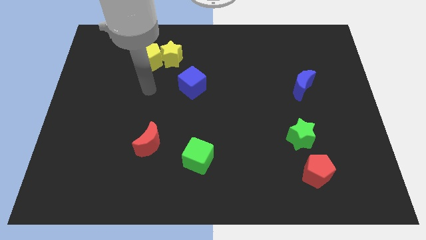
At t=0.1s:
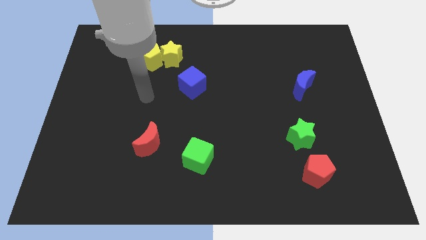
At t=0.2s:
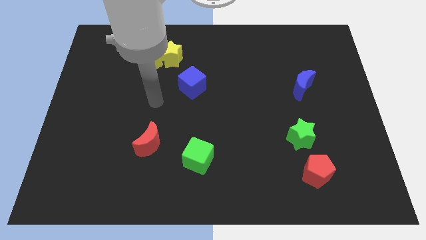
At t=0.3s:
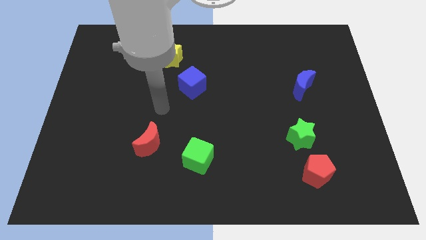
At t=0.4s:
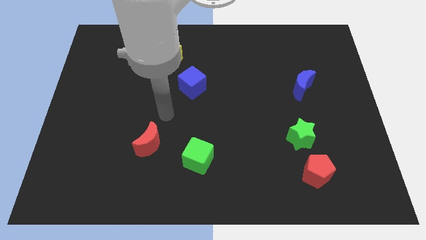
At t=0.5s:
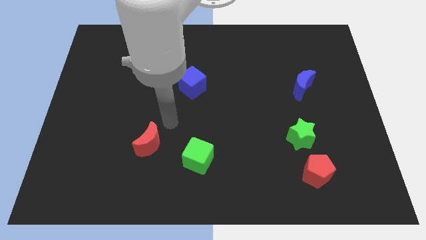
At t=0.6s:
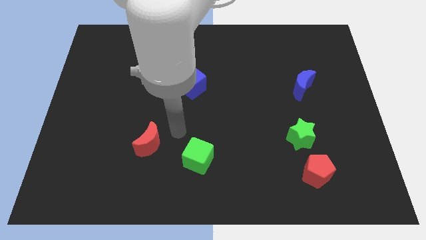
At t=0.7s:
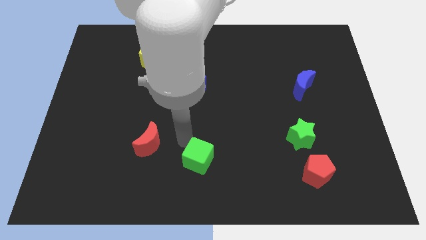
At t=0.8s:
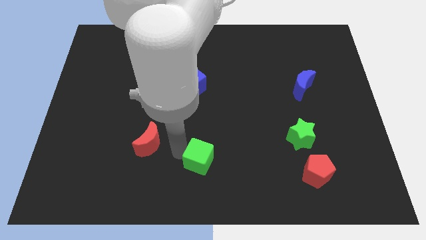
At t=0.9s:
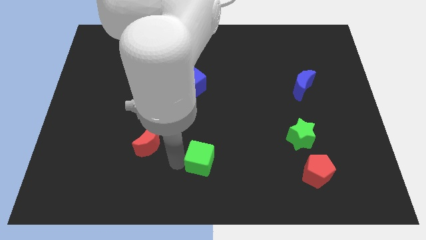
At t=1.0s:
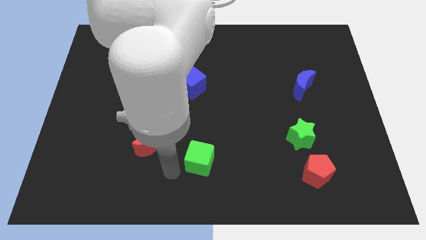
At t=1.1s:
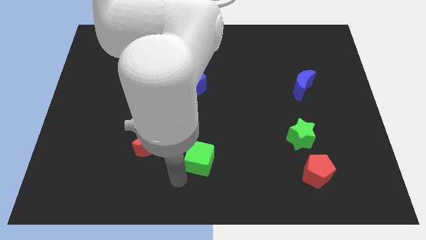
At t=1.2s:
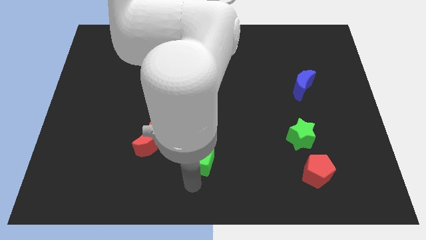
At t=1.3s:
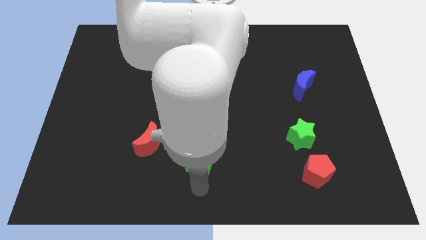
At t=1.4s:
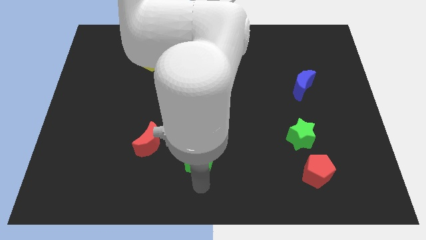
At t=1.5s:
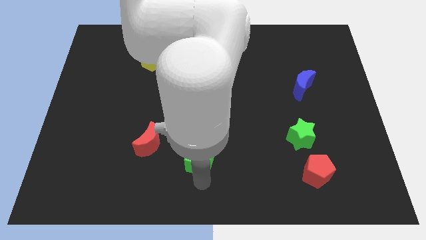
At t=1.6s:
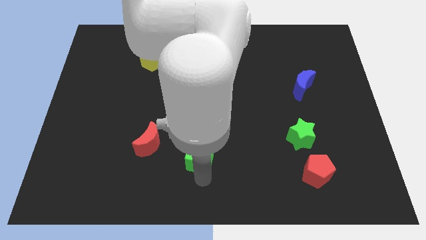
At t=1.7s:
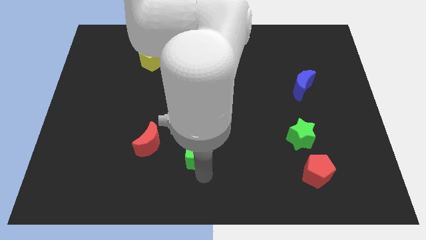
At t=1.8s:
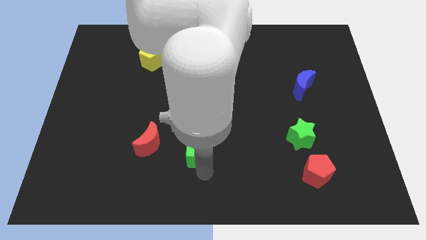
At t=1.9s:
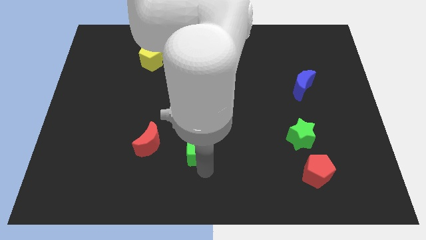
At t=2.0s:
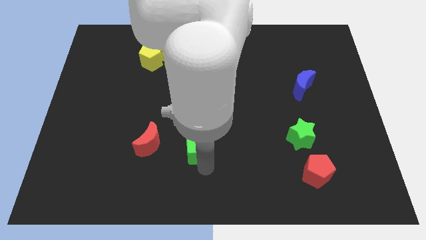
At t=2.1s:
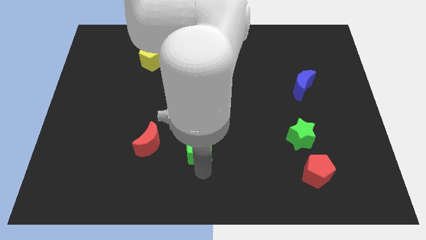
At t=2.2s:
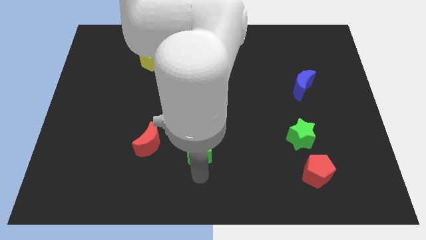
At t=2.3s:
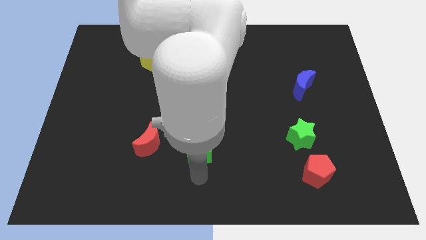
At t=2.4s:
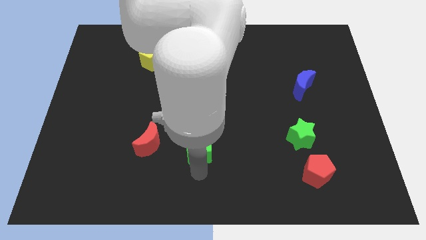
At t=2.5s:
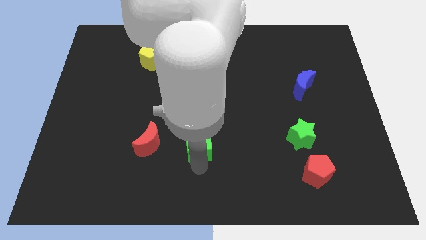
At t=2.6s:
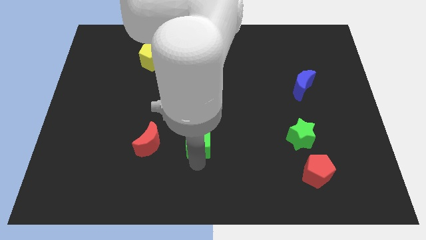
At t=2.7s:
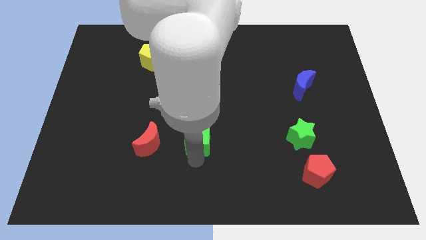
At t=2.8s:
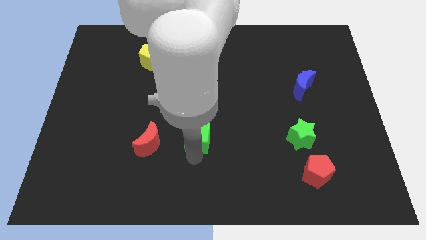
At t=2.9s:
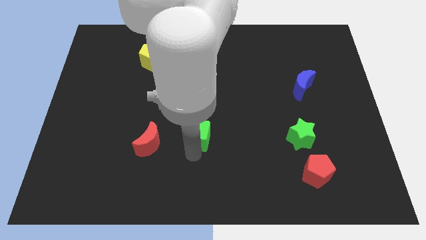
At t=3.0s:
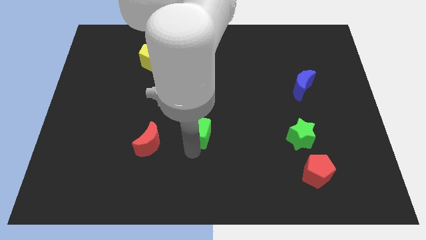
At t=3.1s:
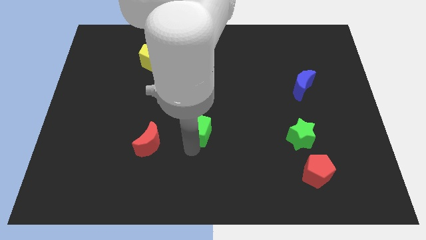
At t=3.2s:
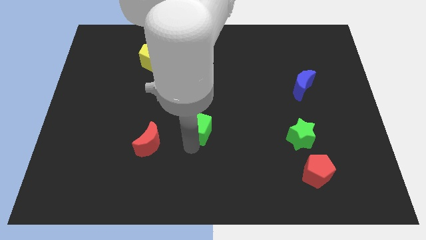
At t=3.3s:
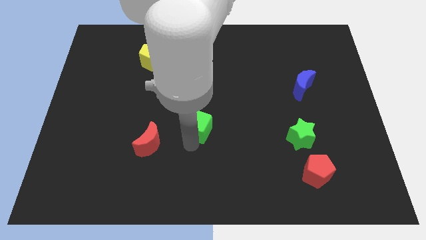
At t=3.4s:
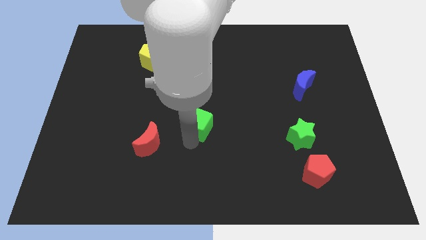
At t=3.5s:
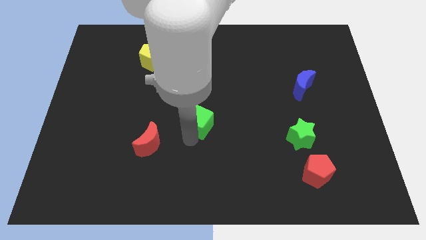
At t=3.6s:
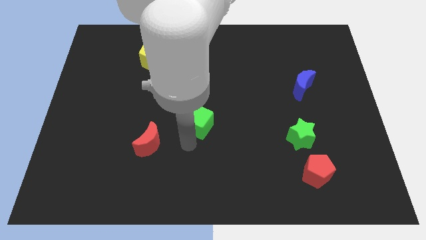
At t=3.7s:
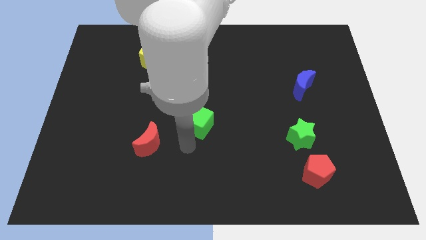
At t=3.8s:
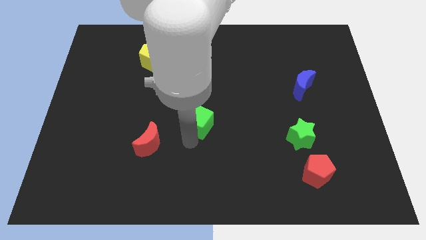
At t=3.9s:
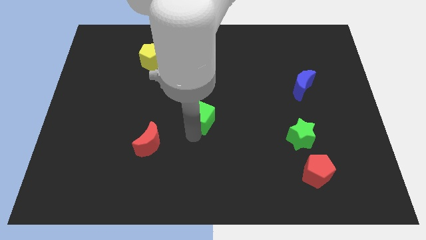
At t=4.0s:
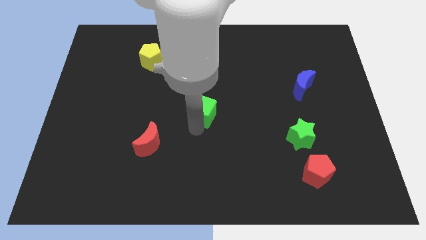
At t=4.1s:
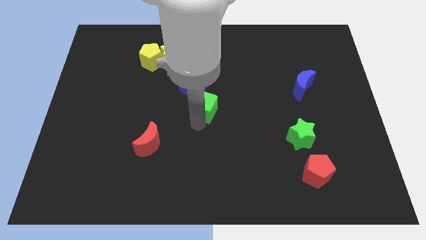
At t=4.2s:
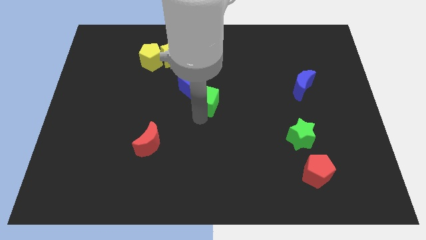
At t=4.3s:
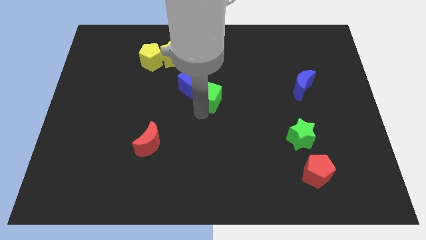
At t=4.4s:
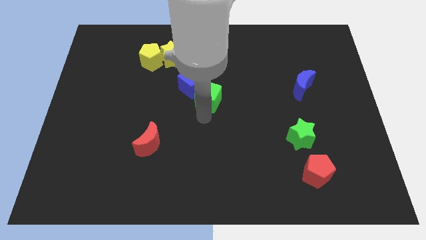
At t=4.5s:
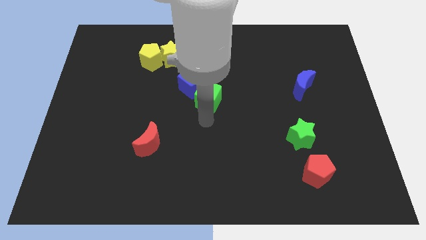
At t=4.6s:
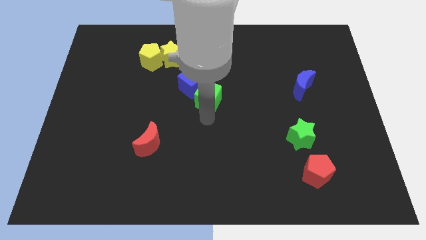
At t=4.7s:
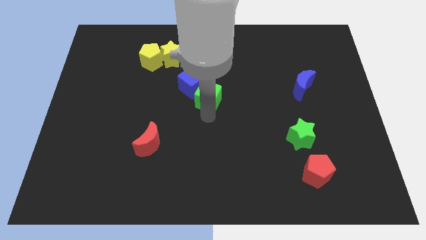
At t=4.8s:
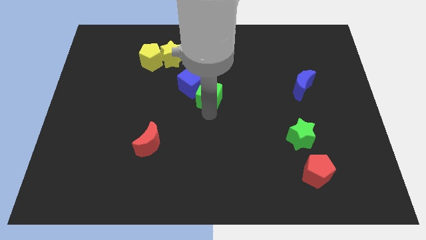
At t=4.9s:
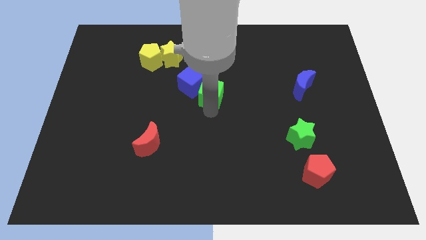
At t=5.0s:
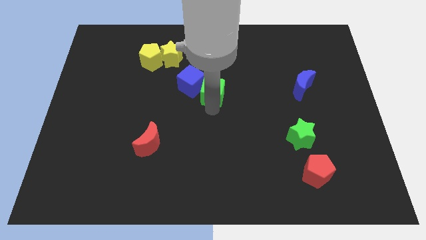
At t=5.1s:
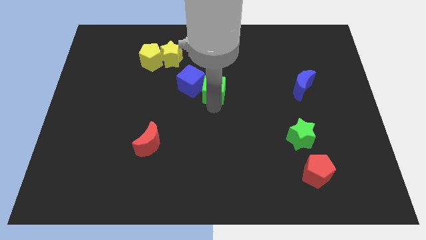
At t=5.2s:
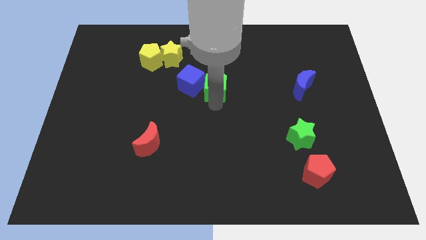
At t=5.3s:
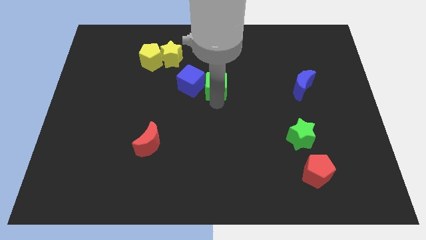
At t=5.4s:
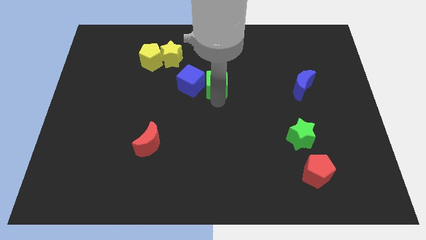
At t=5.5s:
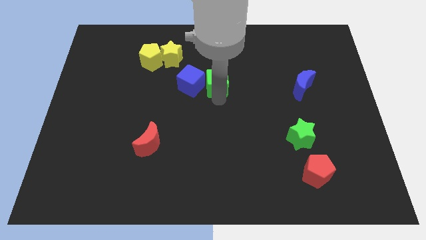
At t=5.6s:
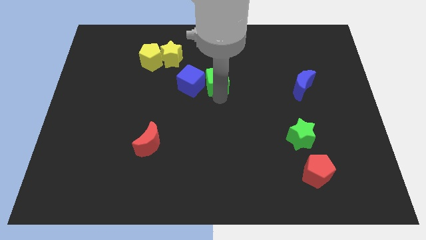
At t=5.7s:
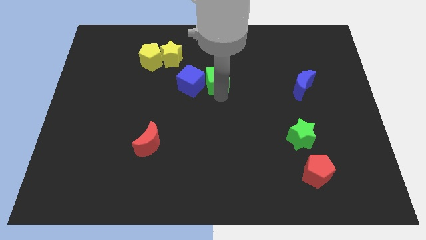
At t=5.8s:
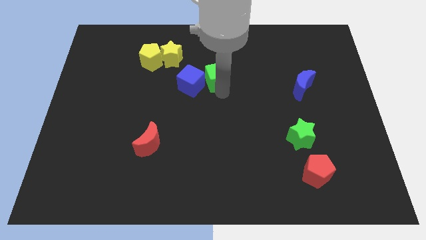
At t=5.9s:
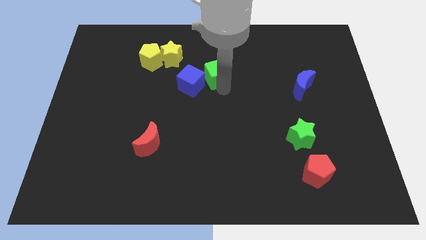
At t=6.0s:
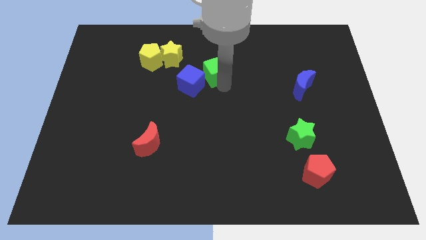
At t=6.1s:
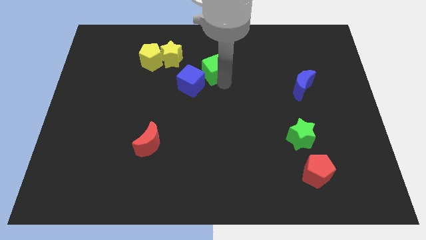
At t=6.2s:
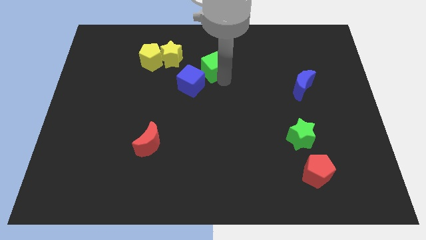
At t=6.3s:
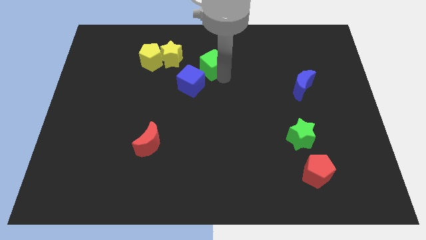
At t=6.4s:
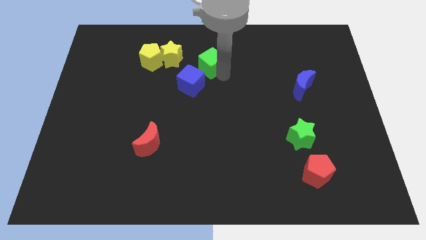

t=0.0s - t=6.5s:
slide the green cube above the blue cube
